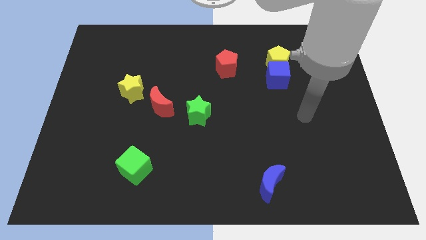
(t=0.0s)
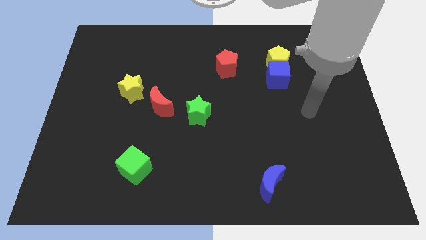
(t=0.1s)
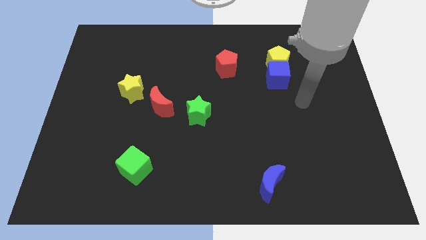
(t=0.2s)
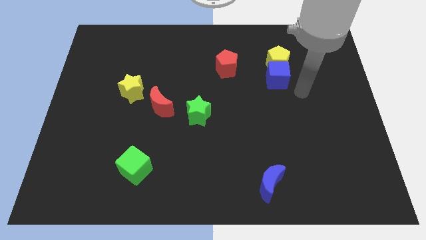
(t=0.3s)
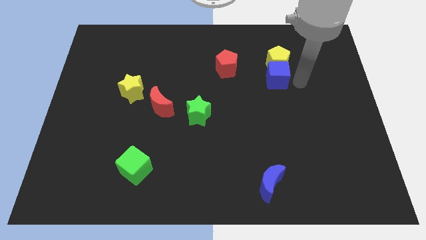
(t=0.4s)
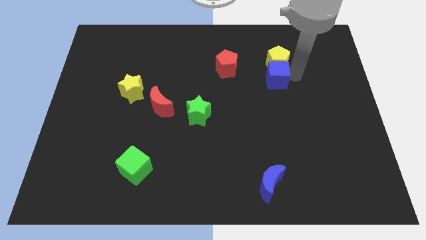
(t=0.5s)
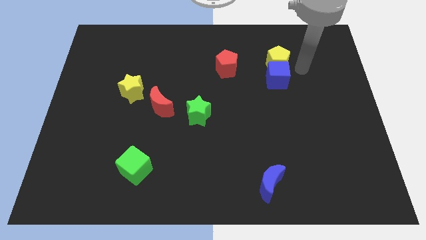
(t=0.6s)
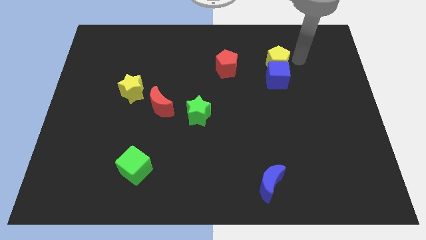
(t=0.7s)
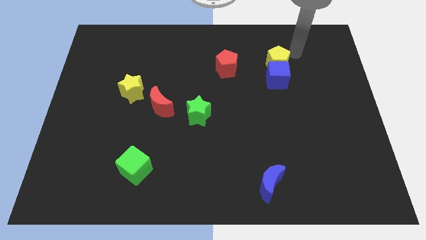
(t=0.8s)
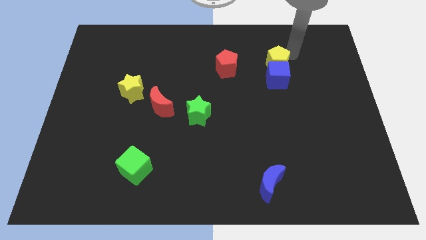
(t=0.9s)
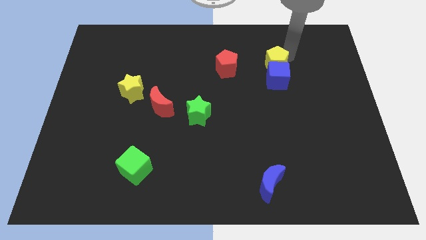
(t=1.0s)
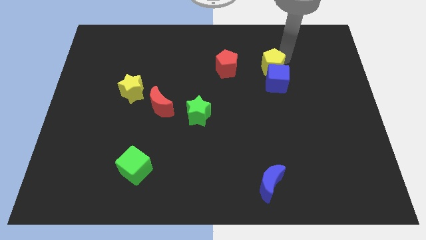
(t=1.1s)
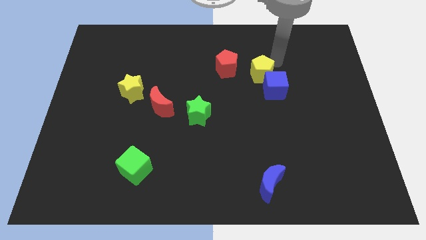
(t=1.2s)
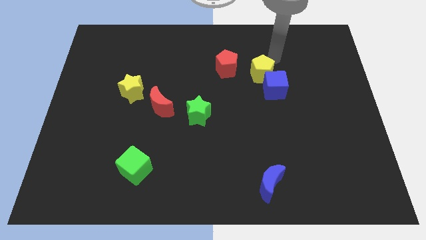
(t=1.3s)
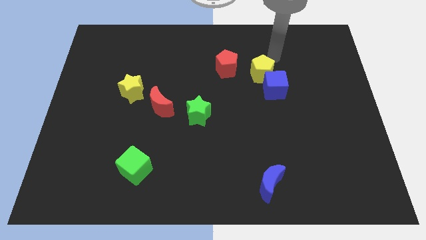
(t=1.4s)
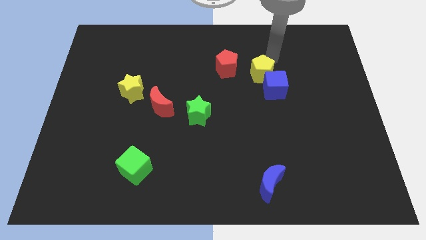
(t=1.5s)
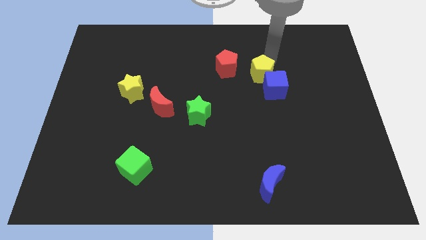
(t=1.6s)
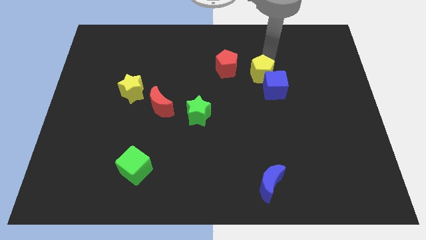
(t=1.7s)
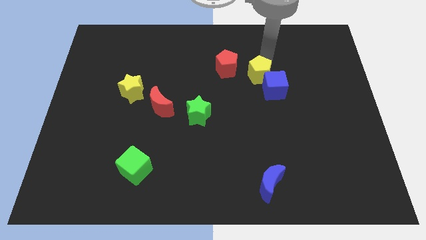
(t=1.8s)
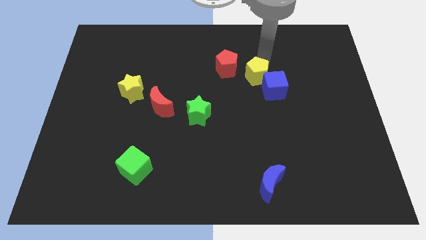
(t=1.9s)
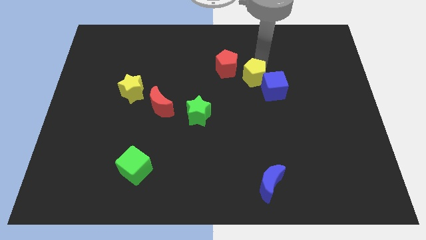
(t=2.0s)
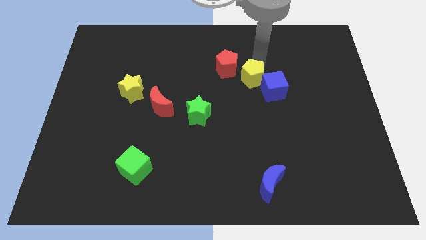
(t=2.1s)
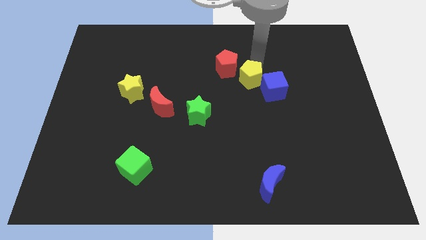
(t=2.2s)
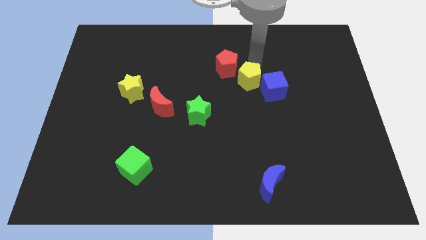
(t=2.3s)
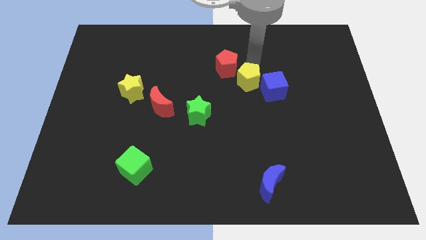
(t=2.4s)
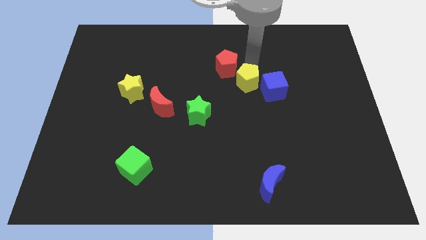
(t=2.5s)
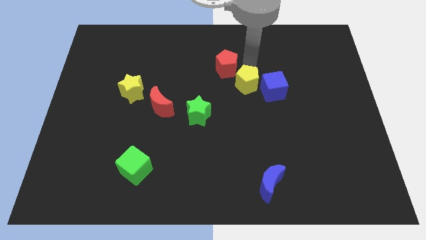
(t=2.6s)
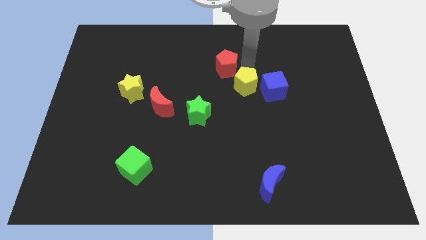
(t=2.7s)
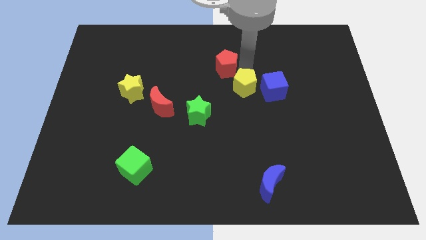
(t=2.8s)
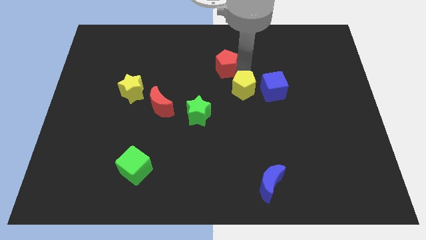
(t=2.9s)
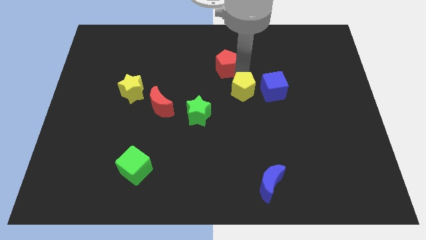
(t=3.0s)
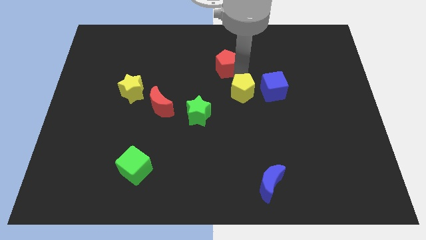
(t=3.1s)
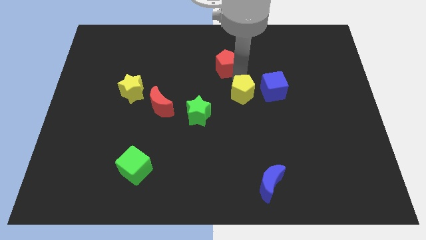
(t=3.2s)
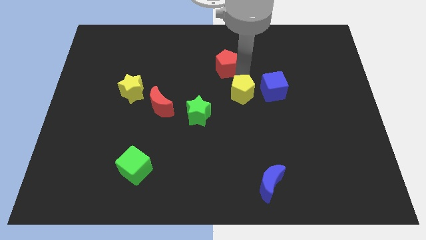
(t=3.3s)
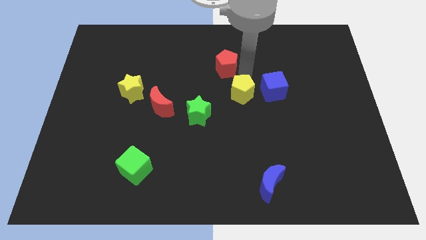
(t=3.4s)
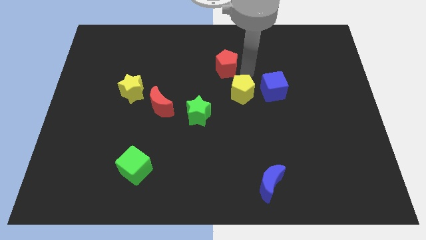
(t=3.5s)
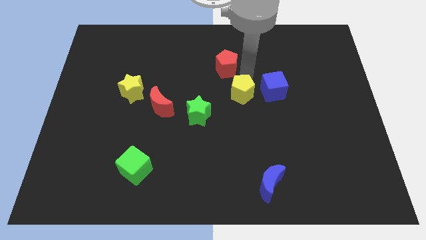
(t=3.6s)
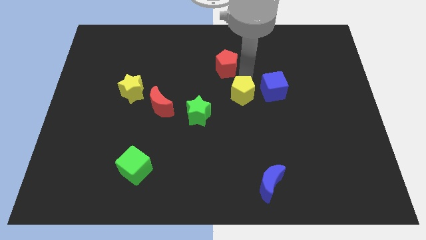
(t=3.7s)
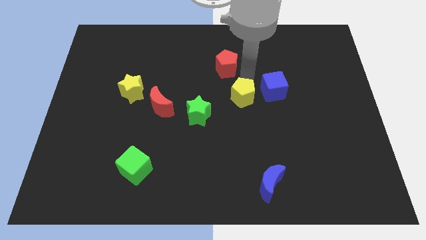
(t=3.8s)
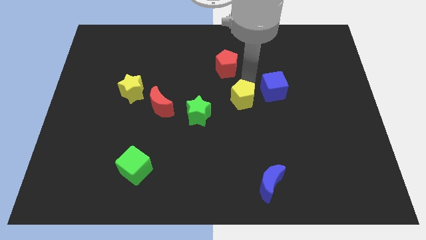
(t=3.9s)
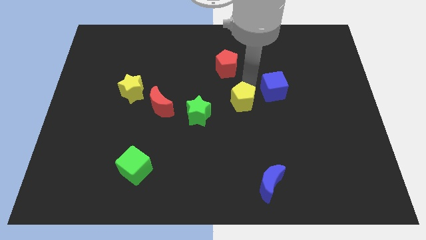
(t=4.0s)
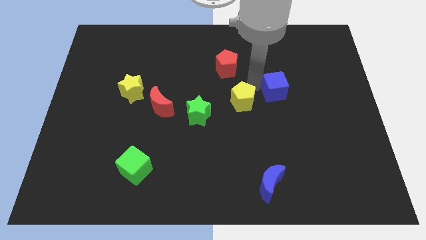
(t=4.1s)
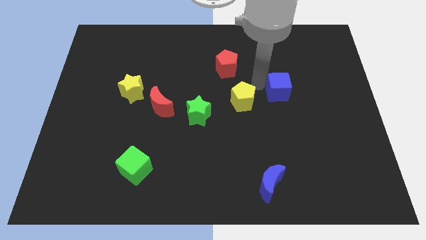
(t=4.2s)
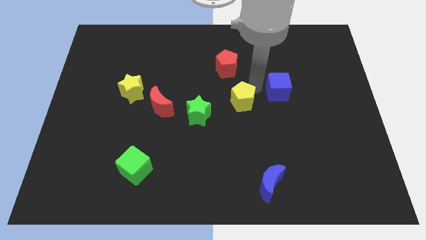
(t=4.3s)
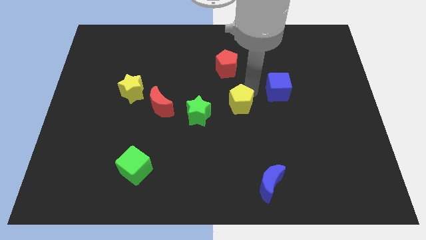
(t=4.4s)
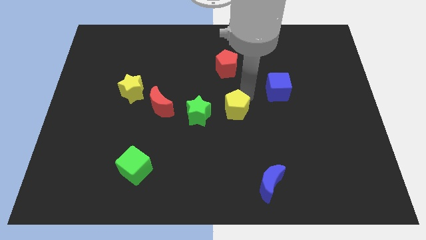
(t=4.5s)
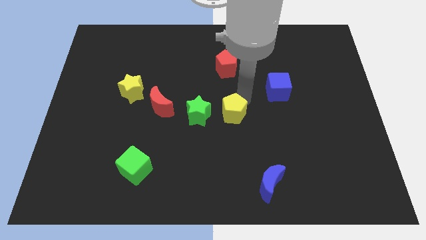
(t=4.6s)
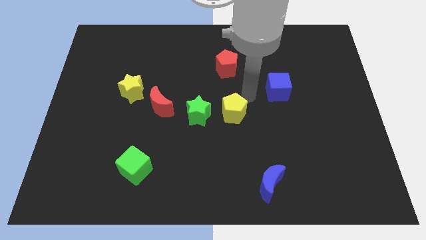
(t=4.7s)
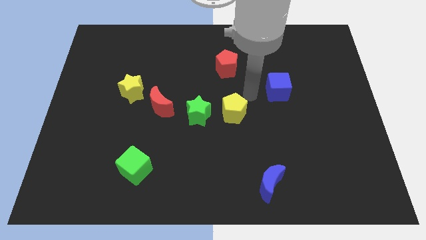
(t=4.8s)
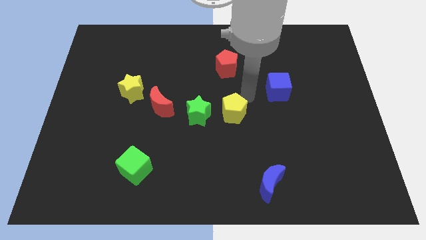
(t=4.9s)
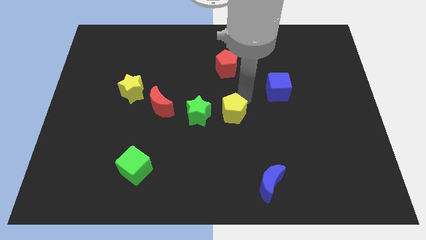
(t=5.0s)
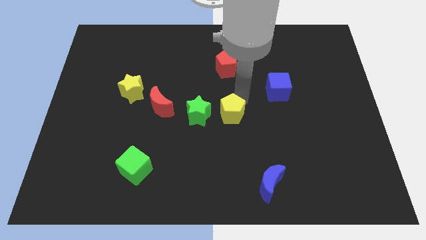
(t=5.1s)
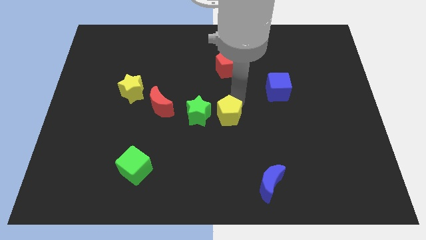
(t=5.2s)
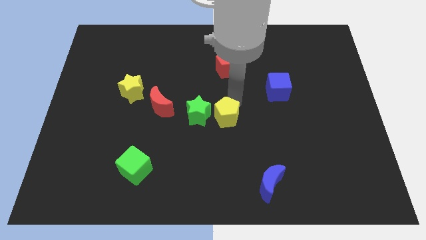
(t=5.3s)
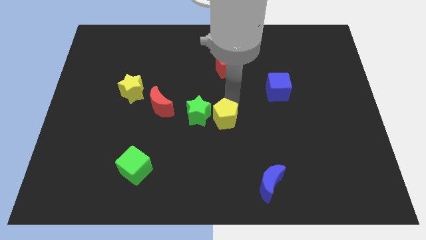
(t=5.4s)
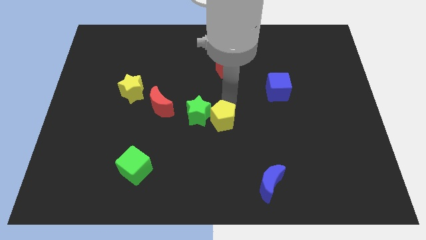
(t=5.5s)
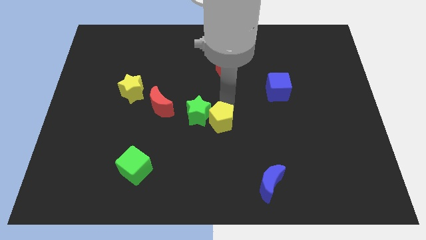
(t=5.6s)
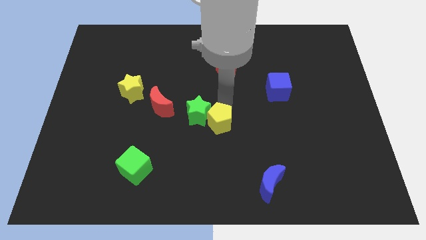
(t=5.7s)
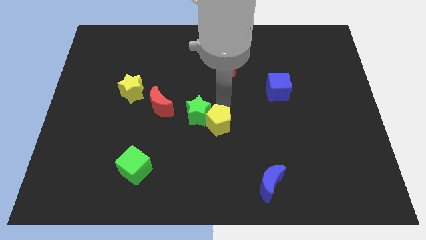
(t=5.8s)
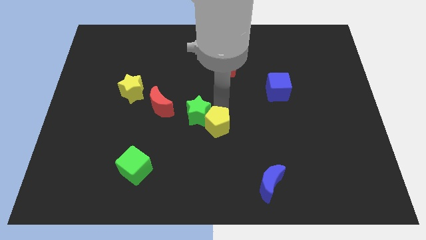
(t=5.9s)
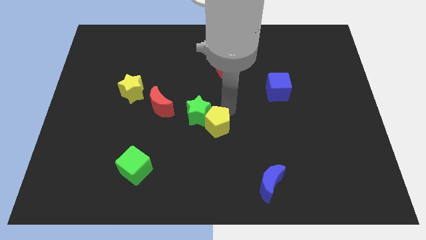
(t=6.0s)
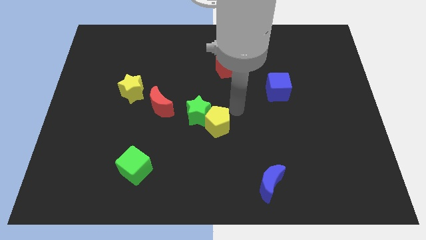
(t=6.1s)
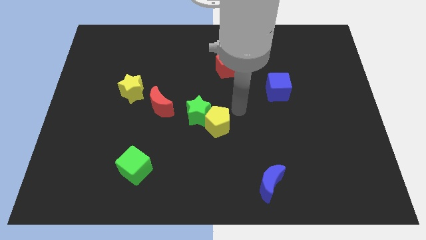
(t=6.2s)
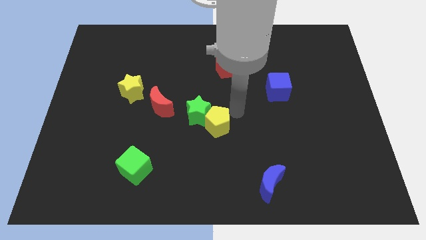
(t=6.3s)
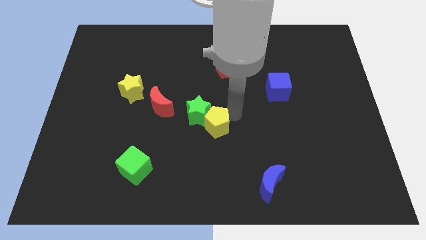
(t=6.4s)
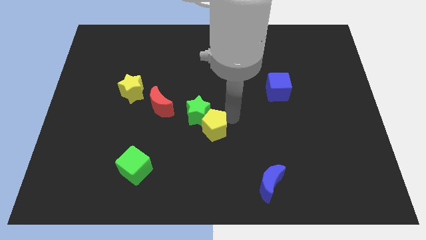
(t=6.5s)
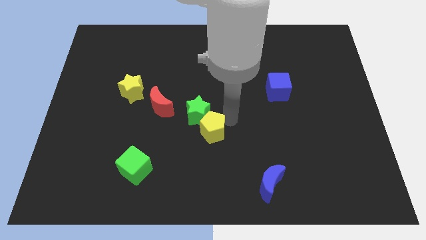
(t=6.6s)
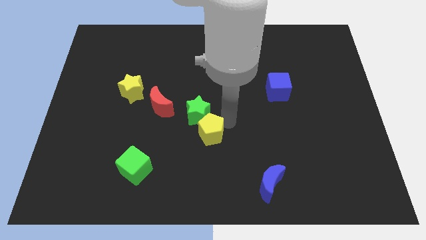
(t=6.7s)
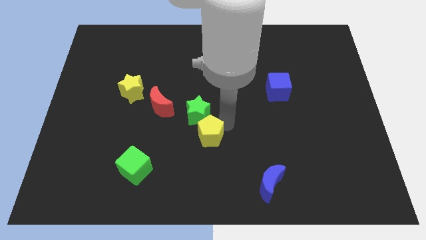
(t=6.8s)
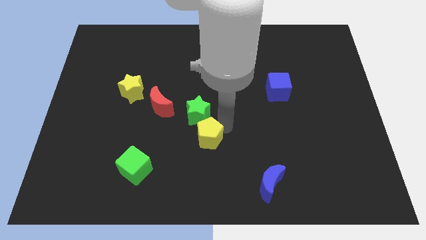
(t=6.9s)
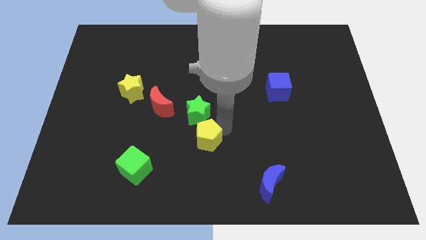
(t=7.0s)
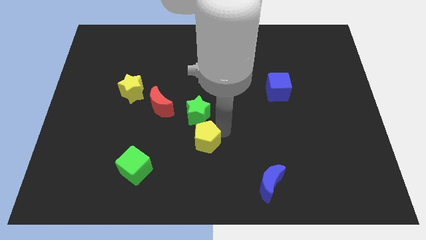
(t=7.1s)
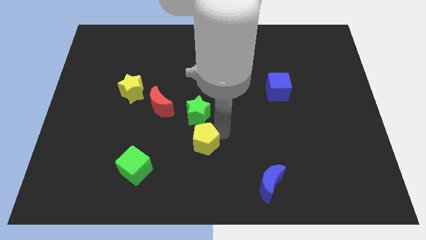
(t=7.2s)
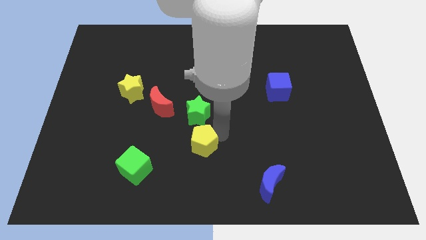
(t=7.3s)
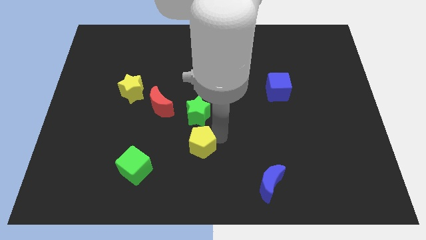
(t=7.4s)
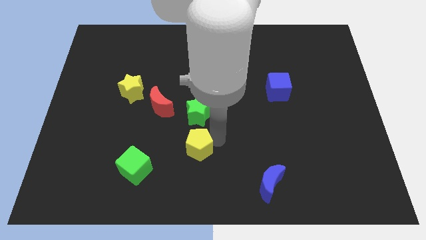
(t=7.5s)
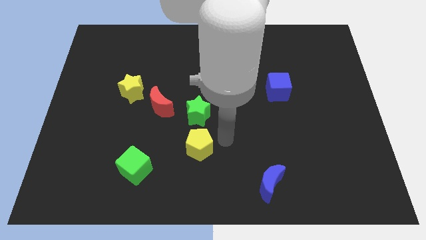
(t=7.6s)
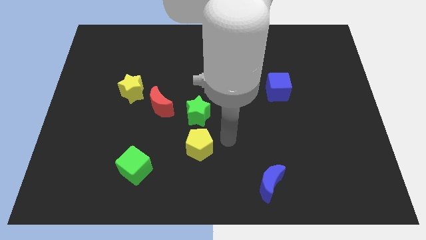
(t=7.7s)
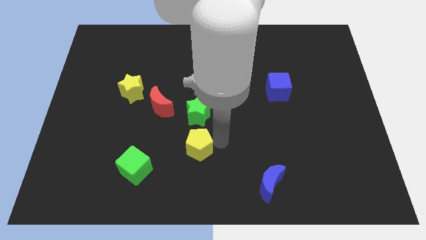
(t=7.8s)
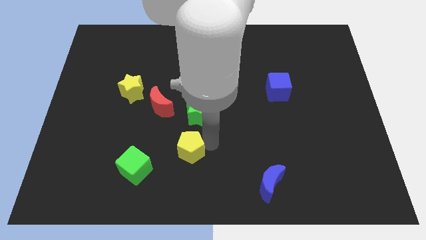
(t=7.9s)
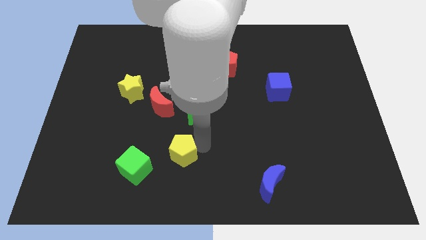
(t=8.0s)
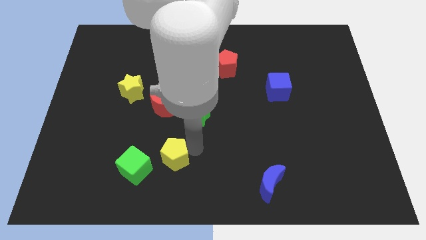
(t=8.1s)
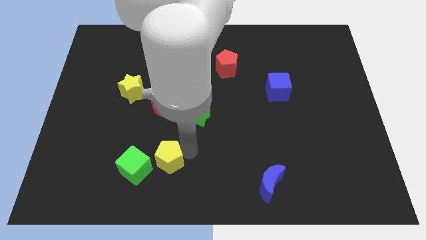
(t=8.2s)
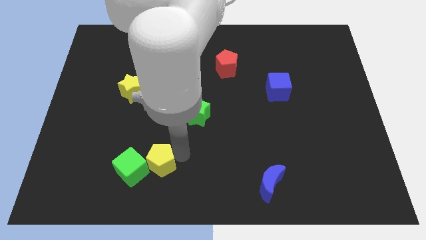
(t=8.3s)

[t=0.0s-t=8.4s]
move the yellow pentagon to the green cube
